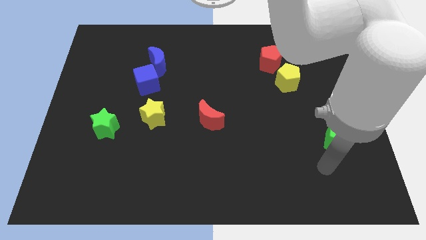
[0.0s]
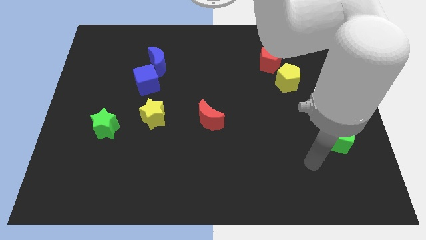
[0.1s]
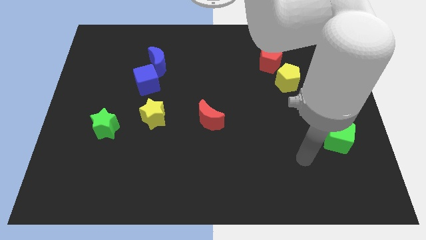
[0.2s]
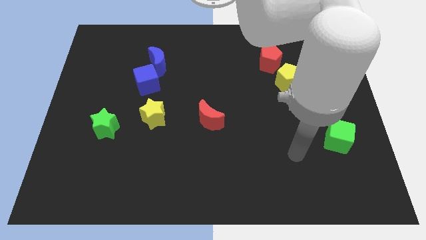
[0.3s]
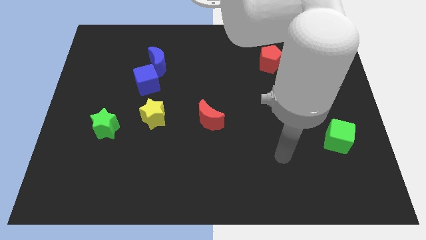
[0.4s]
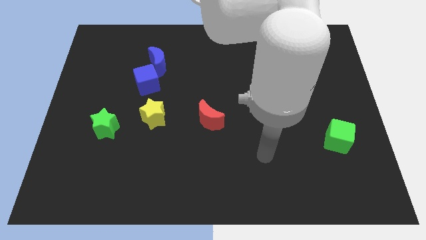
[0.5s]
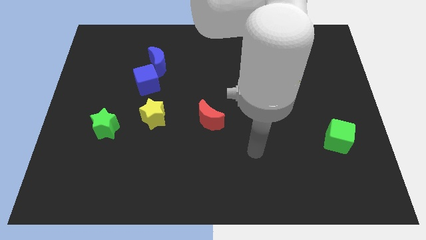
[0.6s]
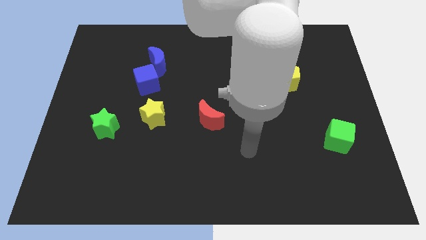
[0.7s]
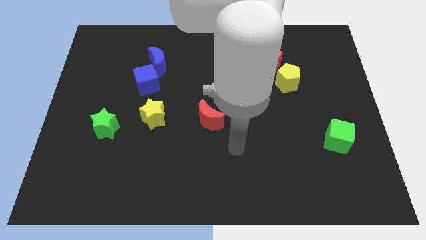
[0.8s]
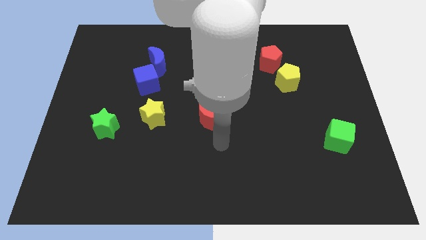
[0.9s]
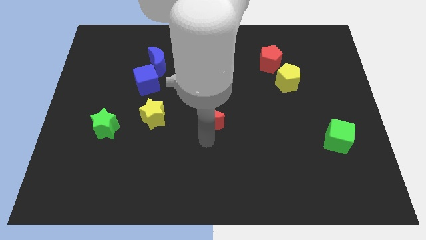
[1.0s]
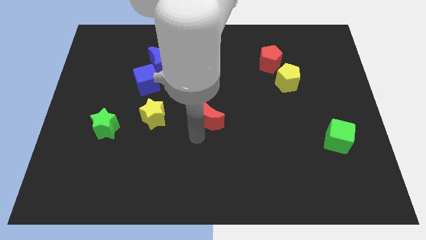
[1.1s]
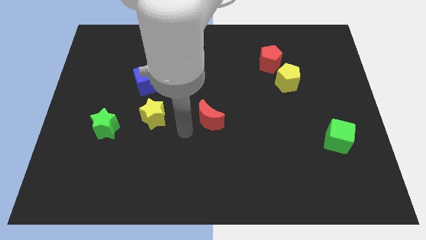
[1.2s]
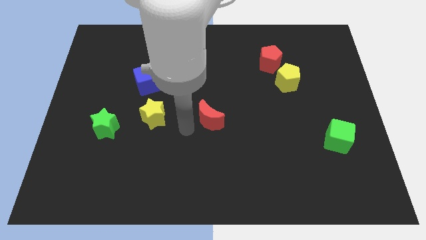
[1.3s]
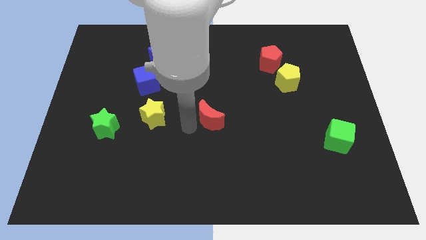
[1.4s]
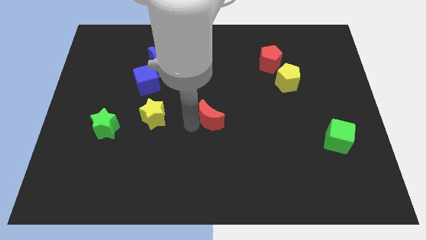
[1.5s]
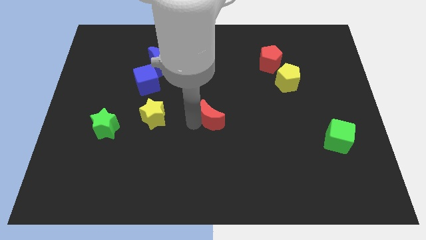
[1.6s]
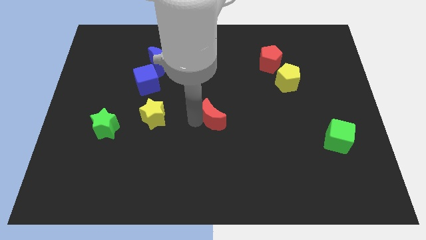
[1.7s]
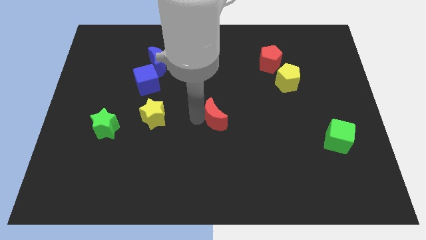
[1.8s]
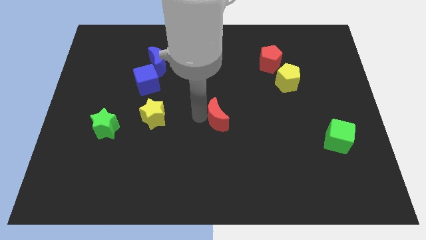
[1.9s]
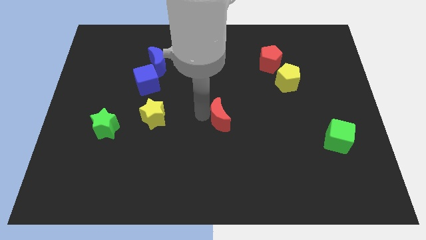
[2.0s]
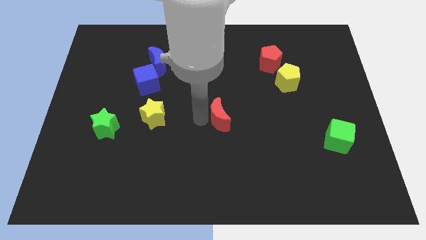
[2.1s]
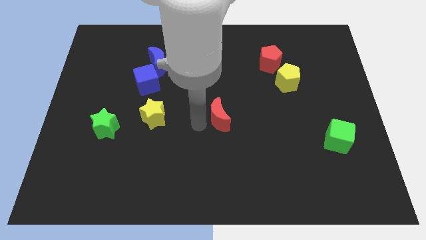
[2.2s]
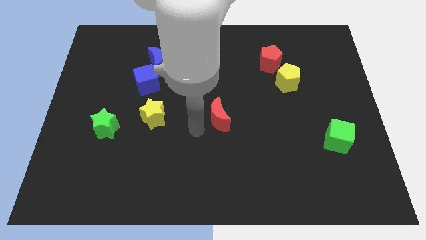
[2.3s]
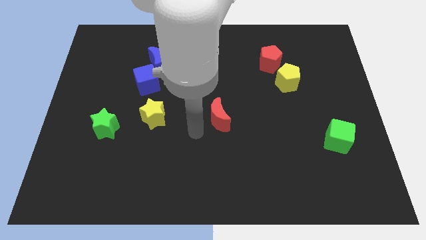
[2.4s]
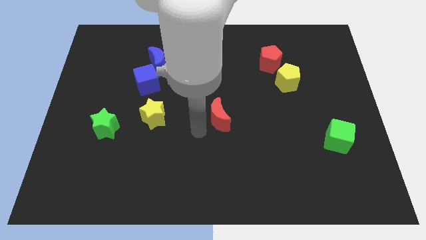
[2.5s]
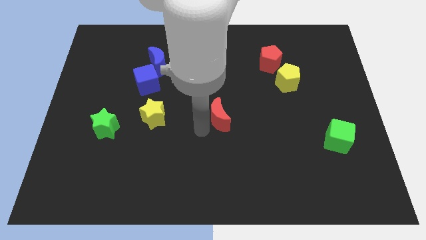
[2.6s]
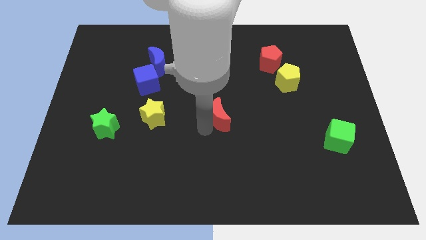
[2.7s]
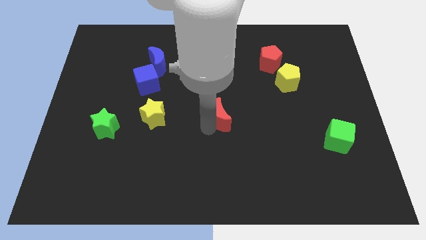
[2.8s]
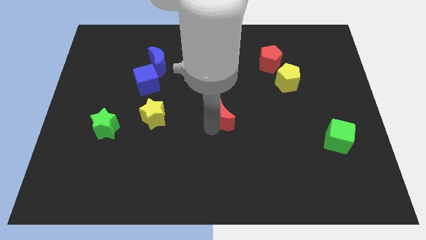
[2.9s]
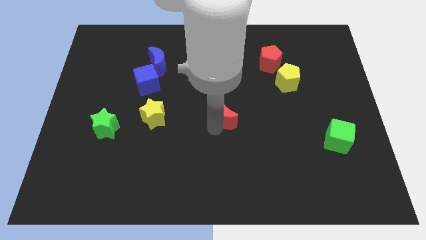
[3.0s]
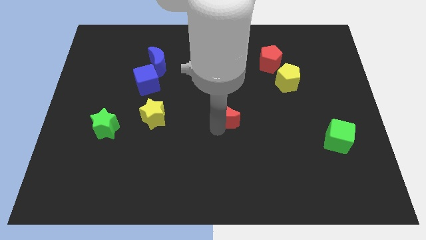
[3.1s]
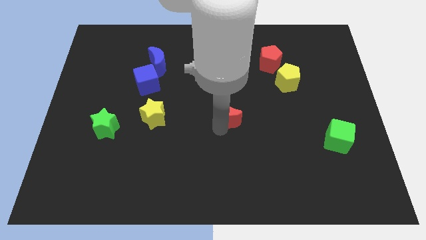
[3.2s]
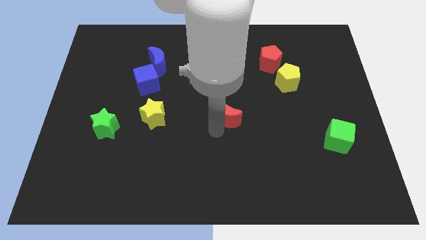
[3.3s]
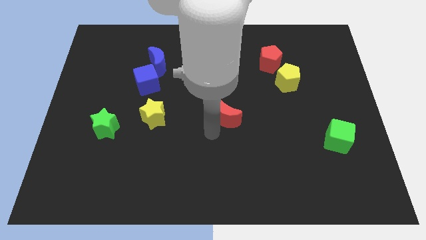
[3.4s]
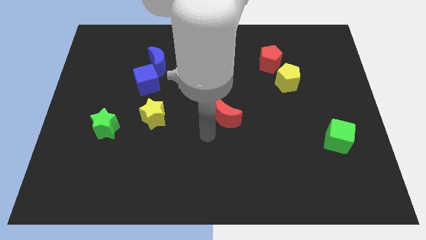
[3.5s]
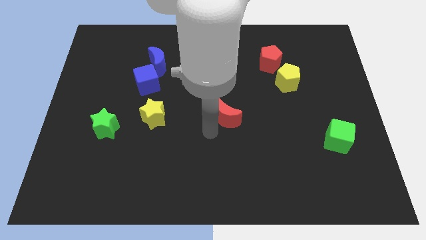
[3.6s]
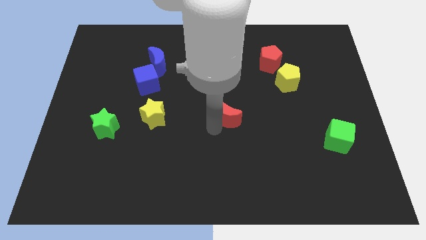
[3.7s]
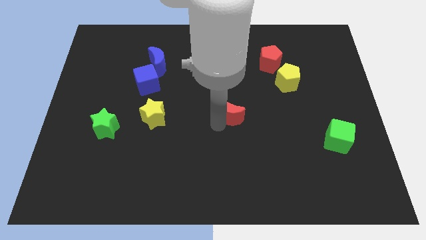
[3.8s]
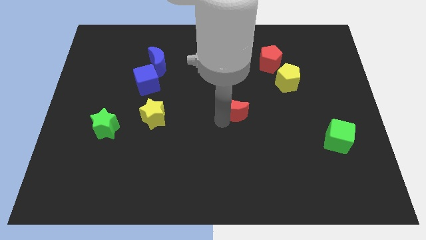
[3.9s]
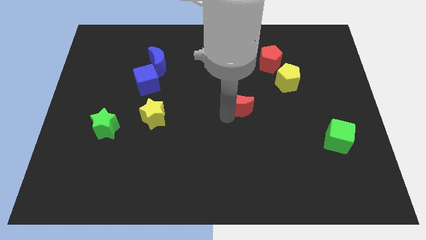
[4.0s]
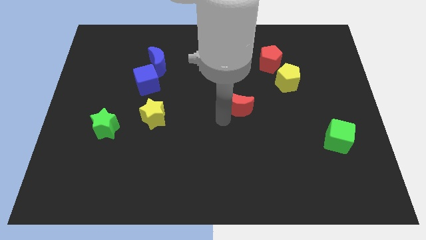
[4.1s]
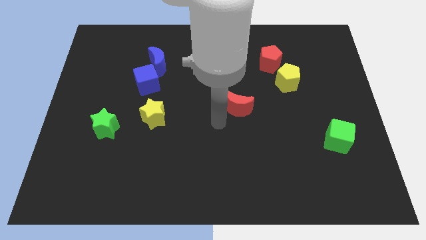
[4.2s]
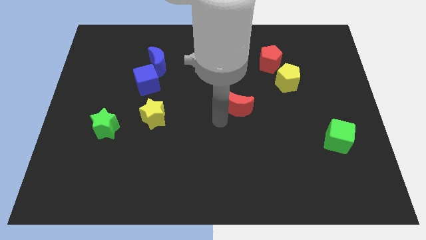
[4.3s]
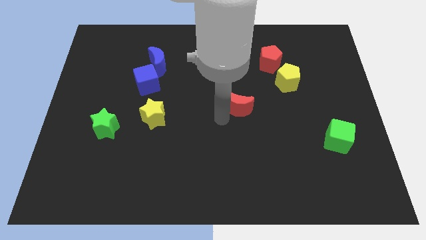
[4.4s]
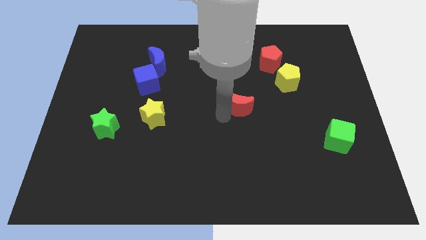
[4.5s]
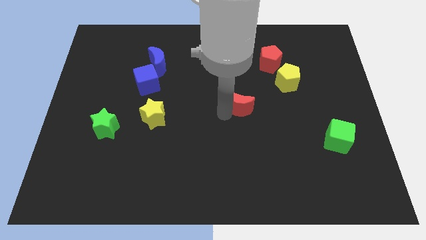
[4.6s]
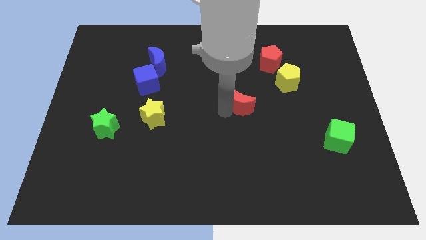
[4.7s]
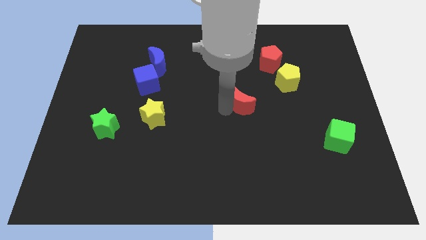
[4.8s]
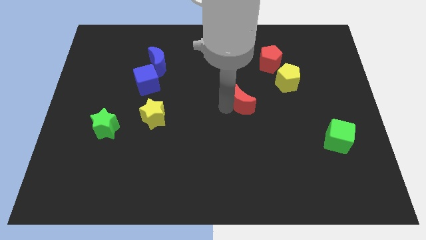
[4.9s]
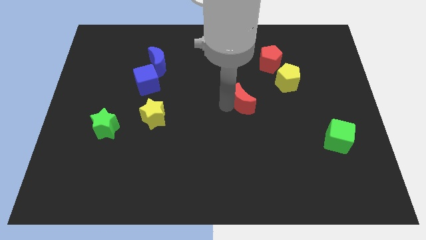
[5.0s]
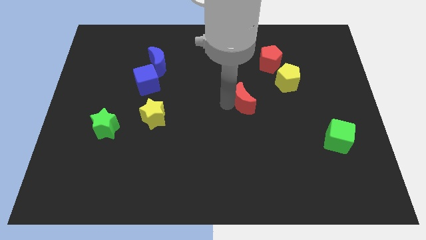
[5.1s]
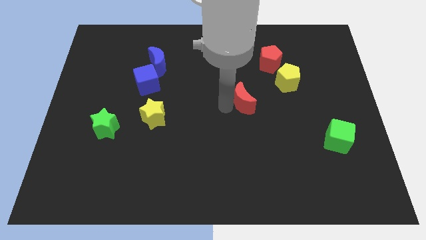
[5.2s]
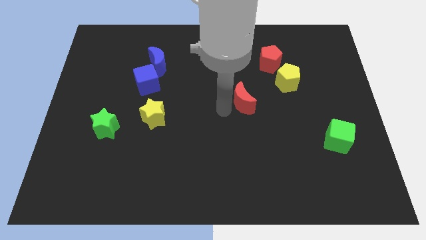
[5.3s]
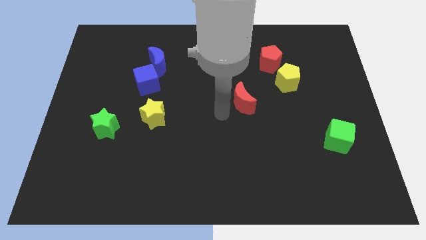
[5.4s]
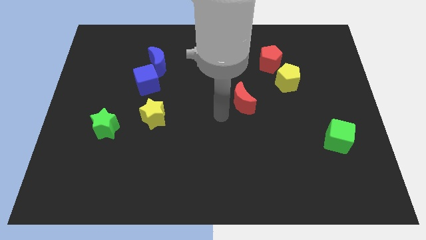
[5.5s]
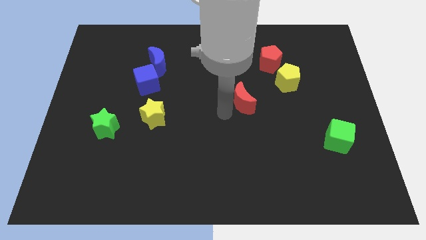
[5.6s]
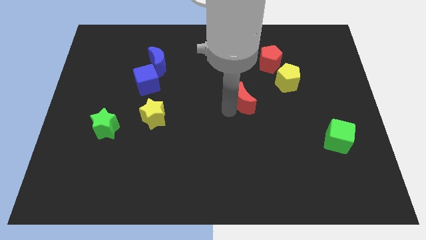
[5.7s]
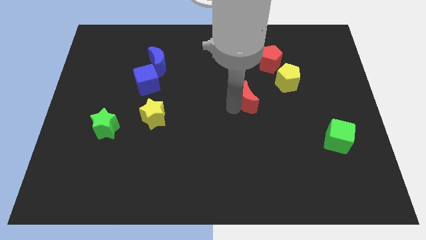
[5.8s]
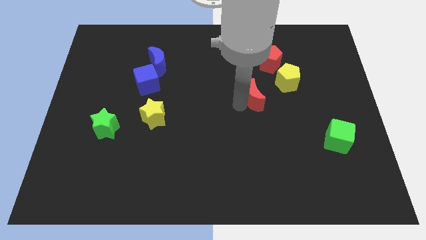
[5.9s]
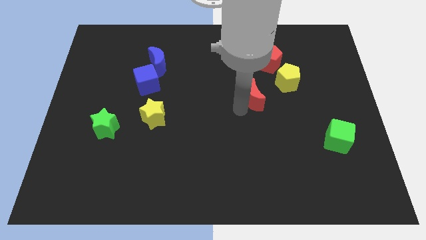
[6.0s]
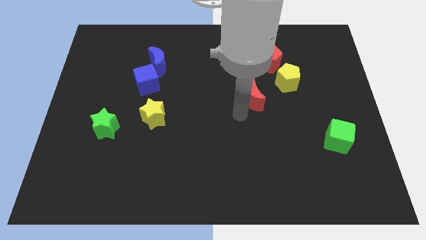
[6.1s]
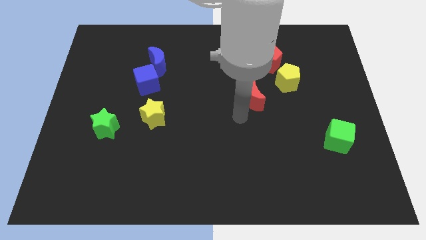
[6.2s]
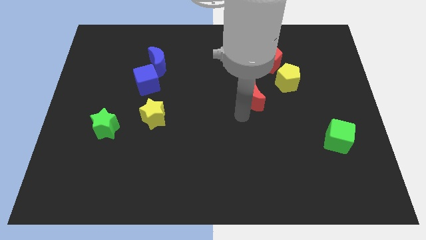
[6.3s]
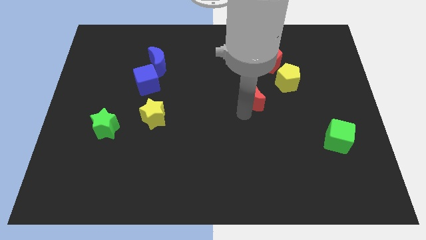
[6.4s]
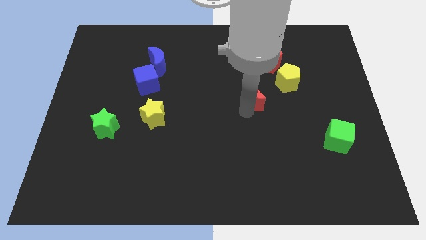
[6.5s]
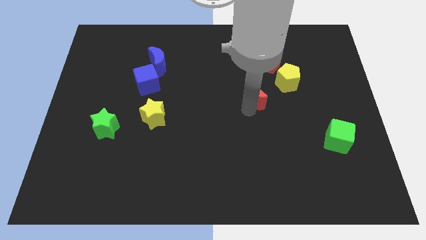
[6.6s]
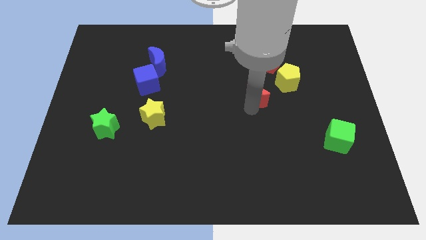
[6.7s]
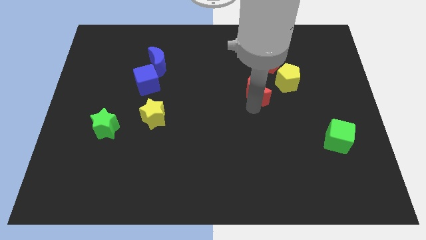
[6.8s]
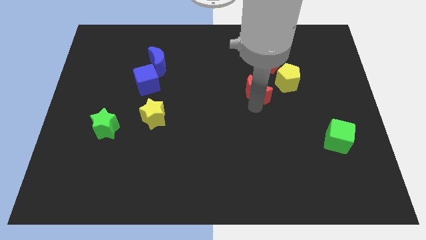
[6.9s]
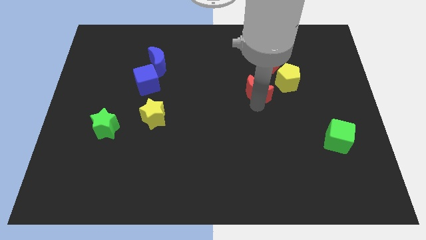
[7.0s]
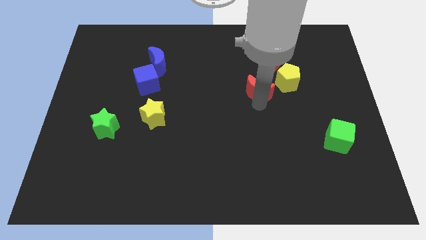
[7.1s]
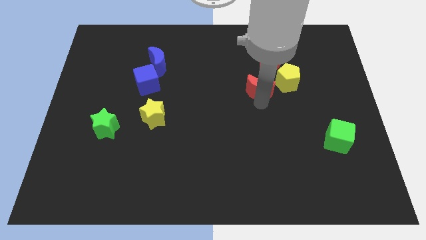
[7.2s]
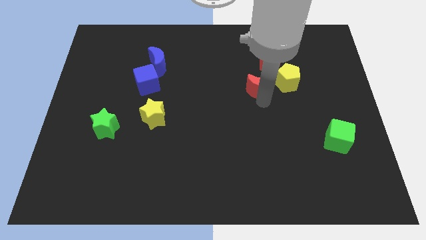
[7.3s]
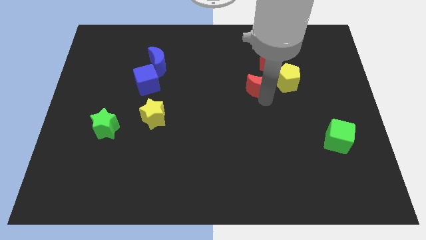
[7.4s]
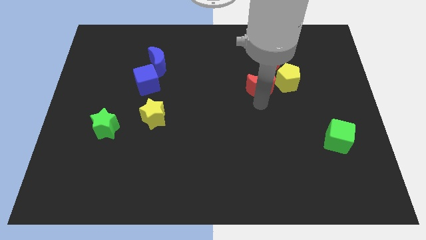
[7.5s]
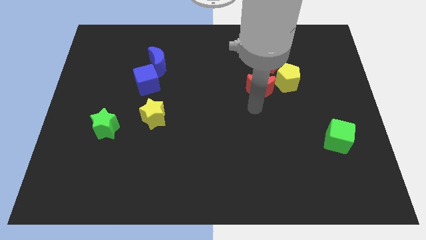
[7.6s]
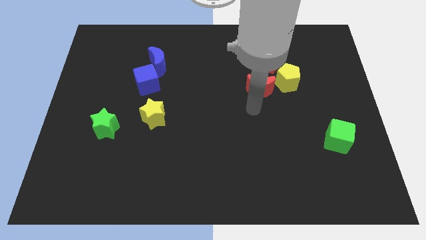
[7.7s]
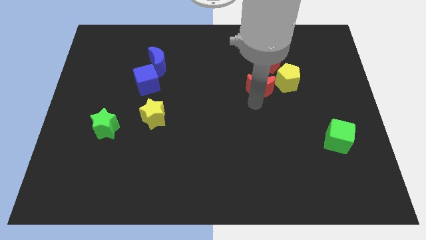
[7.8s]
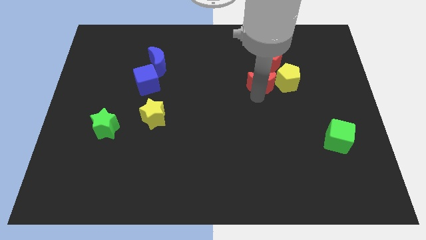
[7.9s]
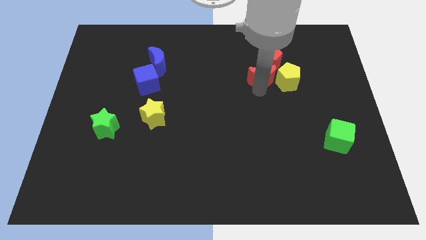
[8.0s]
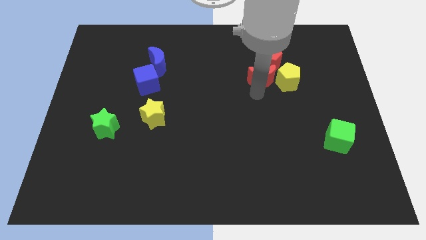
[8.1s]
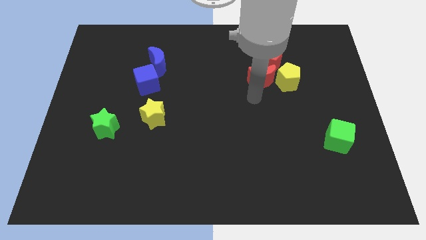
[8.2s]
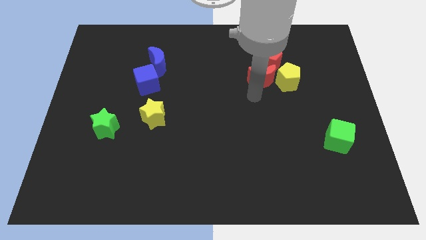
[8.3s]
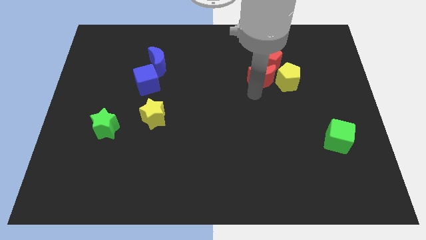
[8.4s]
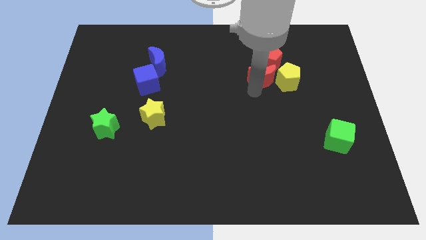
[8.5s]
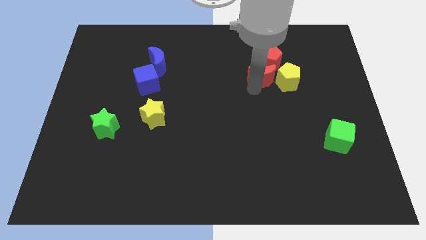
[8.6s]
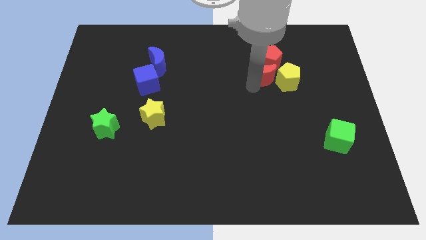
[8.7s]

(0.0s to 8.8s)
push the red moon towards the red pentagon
